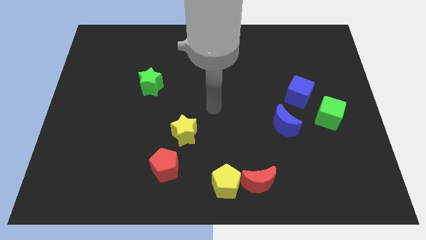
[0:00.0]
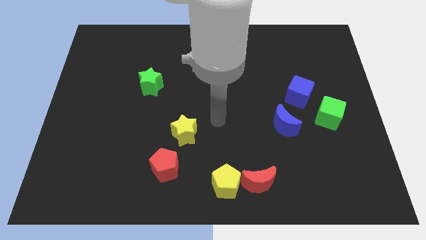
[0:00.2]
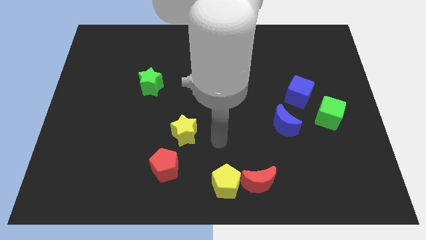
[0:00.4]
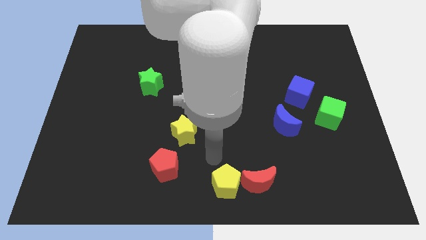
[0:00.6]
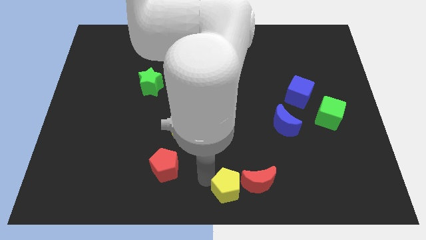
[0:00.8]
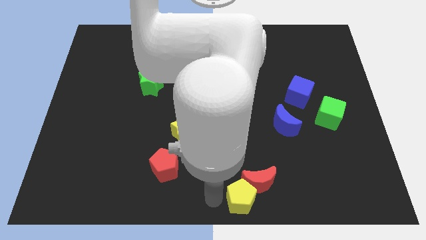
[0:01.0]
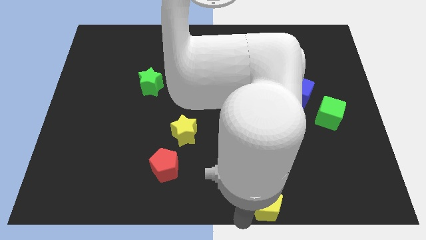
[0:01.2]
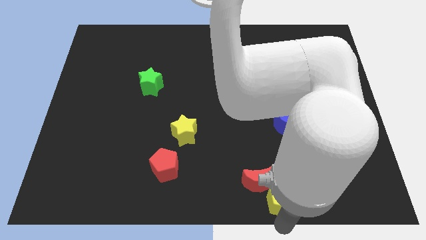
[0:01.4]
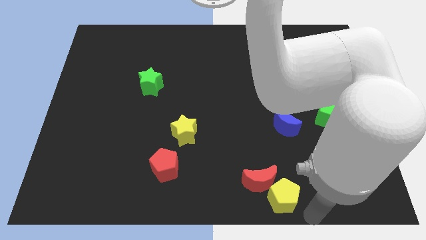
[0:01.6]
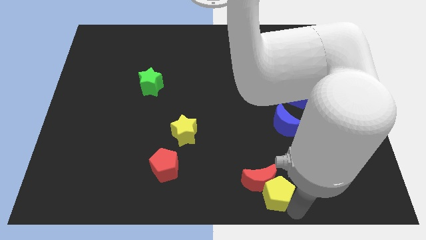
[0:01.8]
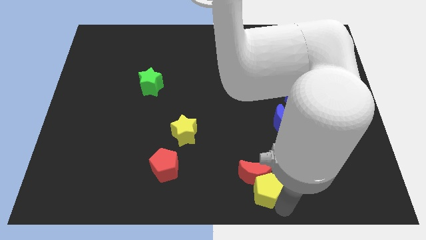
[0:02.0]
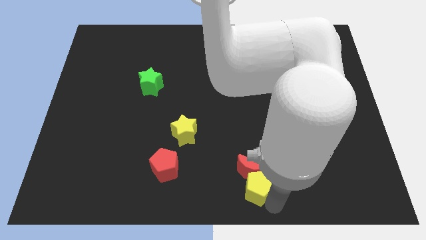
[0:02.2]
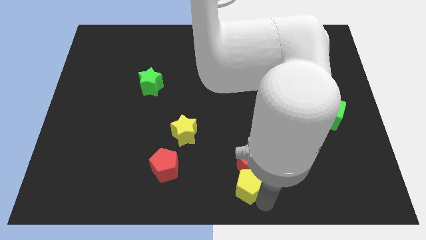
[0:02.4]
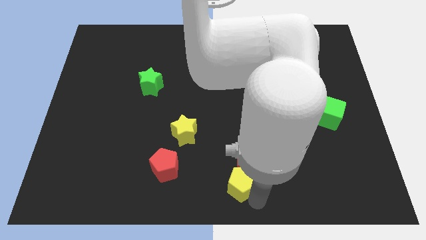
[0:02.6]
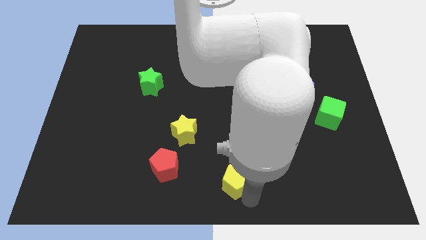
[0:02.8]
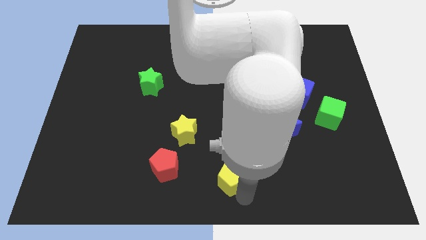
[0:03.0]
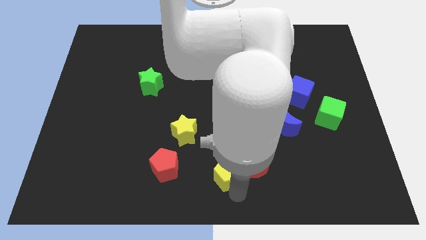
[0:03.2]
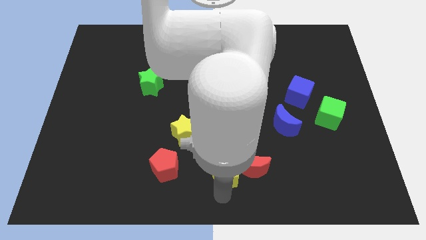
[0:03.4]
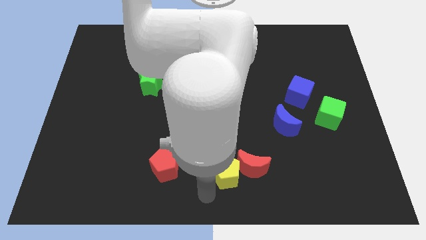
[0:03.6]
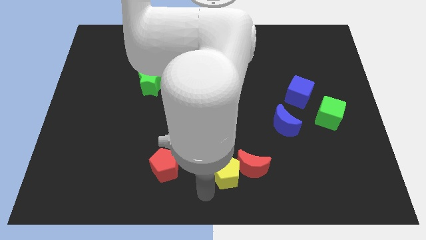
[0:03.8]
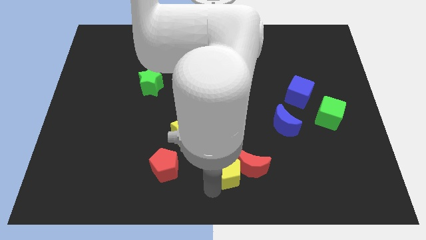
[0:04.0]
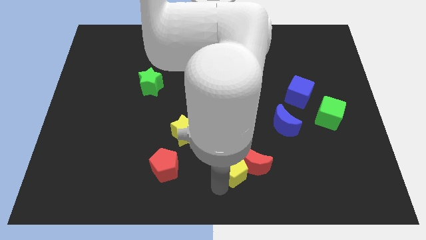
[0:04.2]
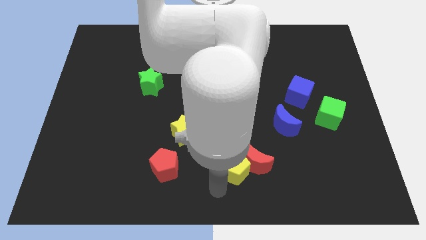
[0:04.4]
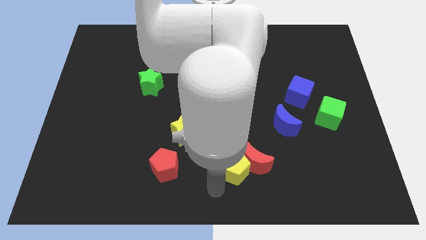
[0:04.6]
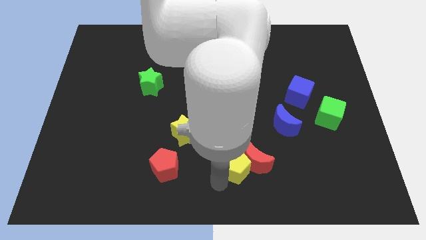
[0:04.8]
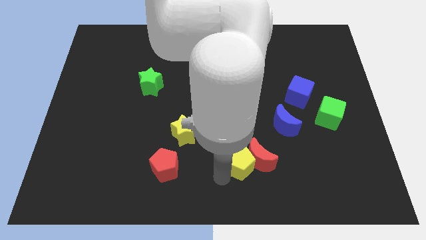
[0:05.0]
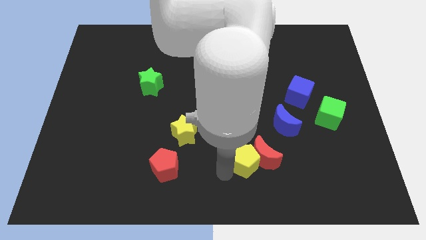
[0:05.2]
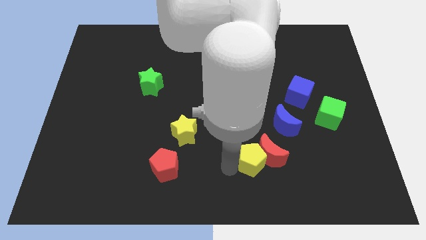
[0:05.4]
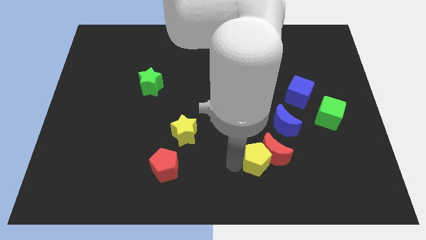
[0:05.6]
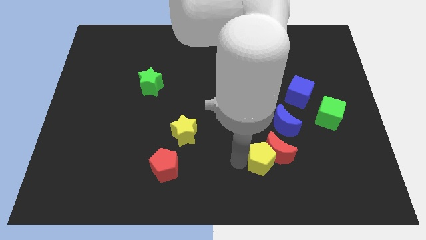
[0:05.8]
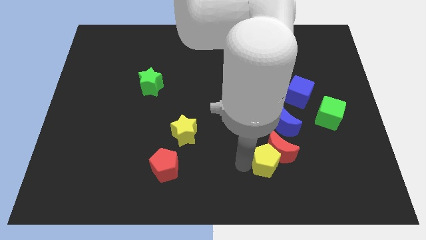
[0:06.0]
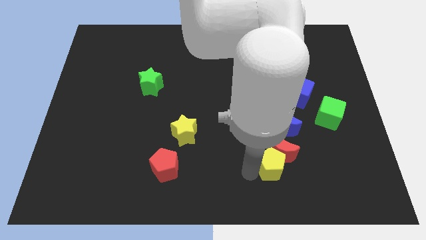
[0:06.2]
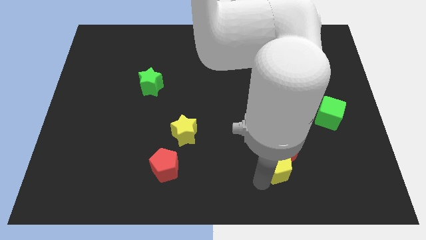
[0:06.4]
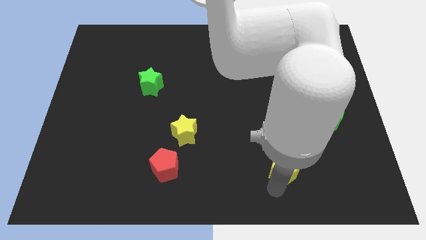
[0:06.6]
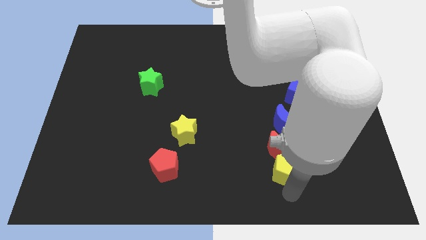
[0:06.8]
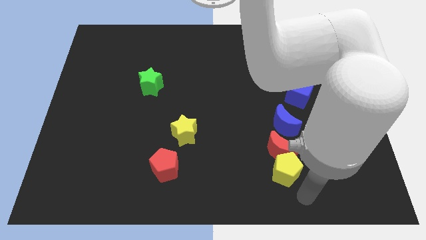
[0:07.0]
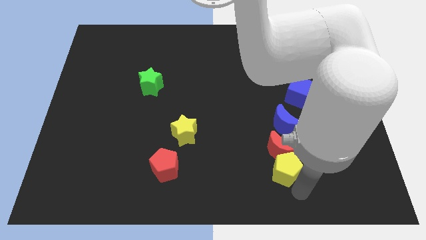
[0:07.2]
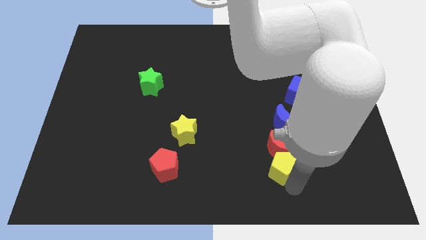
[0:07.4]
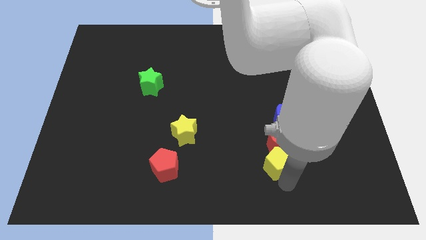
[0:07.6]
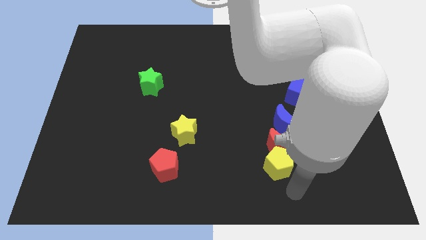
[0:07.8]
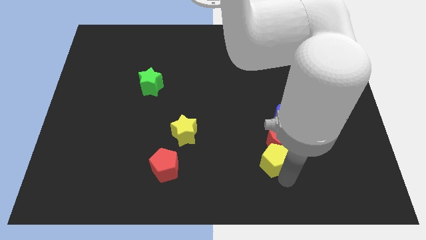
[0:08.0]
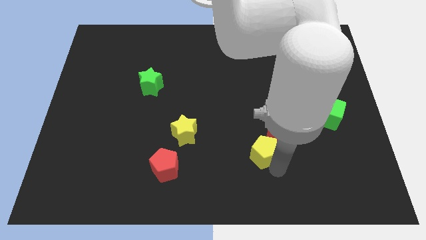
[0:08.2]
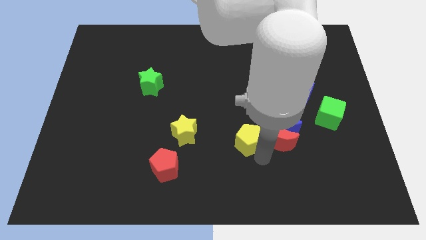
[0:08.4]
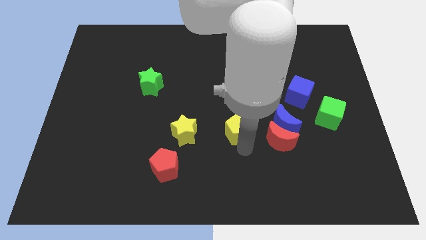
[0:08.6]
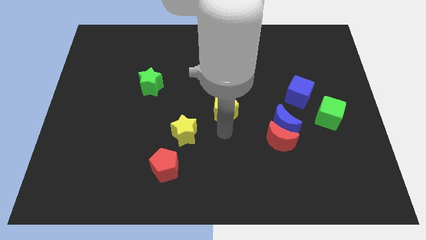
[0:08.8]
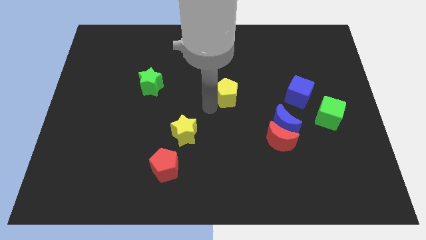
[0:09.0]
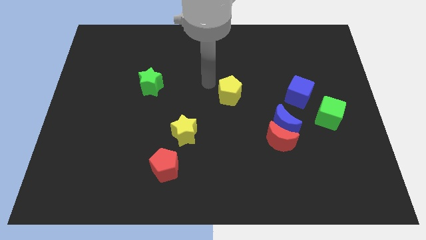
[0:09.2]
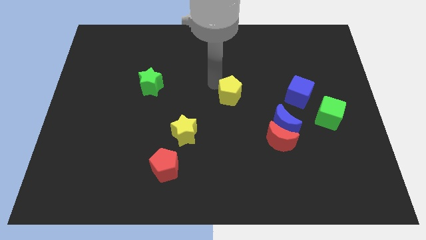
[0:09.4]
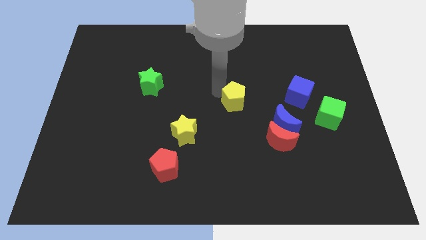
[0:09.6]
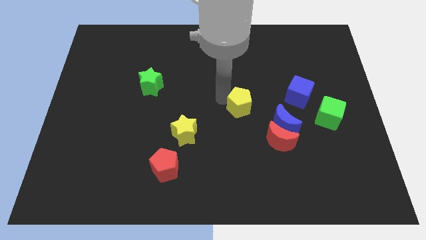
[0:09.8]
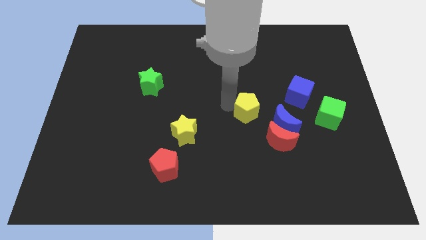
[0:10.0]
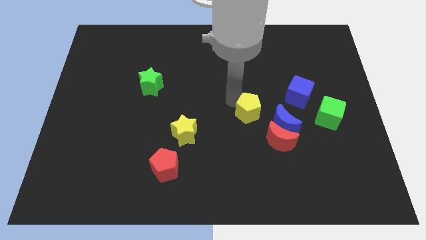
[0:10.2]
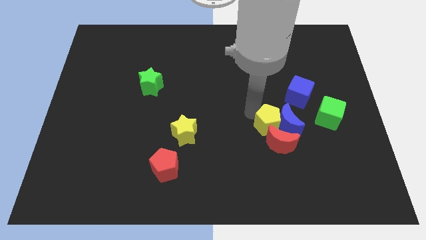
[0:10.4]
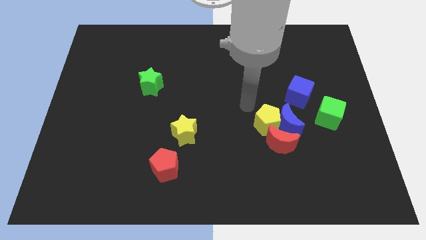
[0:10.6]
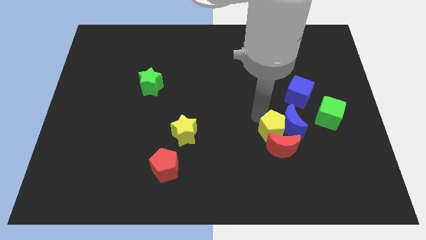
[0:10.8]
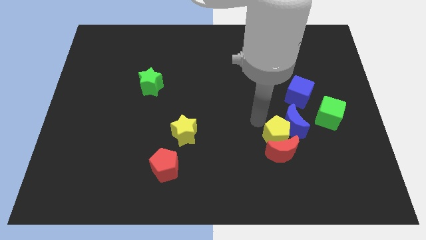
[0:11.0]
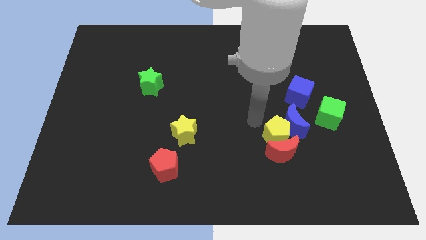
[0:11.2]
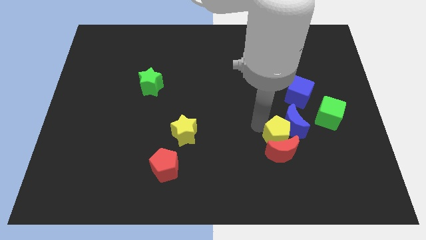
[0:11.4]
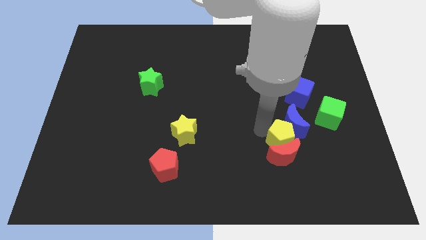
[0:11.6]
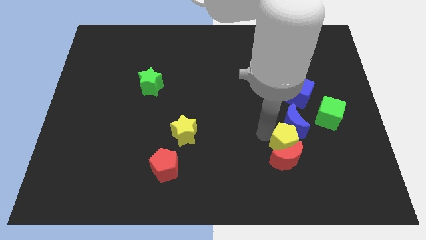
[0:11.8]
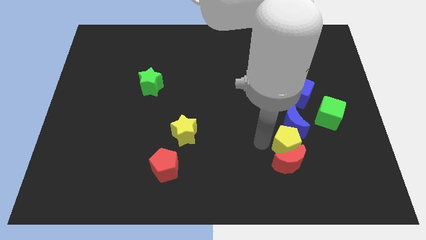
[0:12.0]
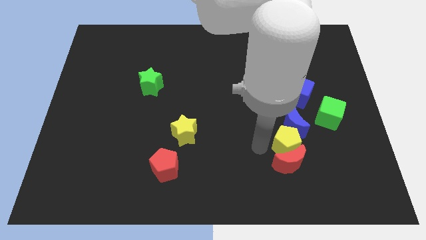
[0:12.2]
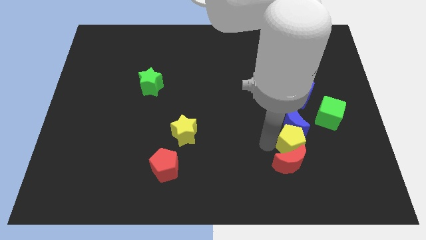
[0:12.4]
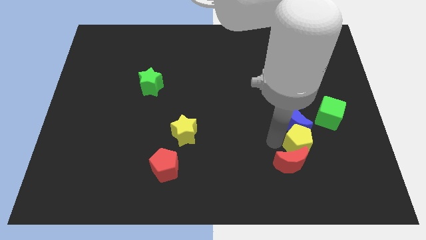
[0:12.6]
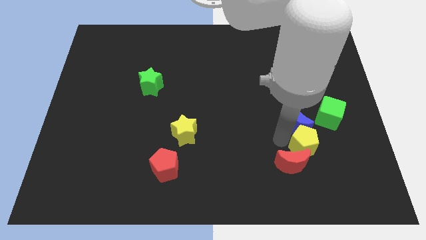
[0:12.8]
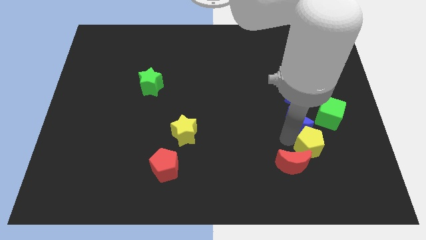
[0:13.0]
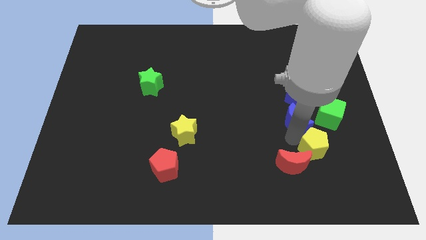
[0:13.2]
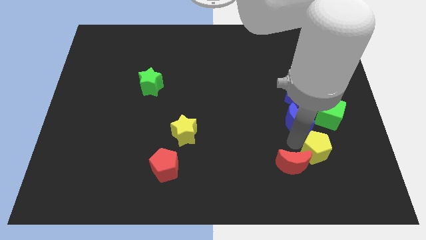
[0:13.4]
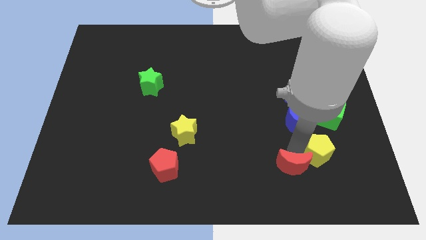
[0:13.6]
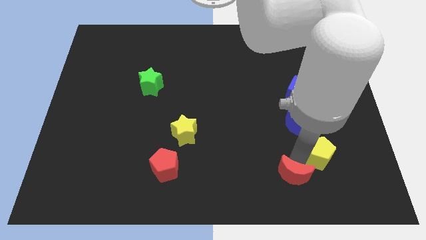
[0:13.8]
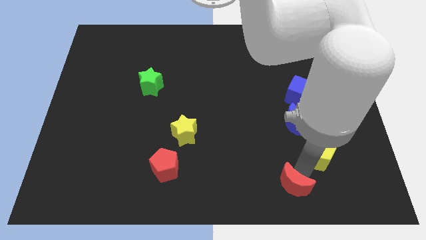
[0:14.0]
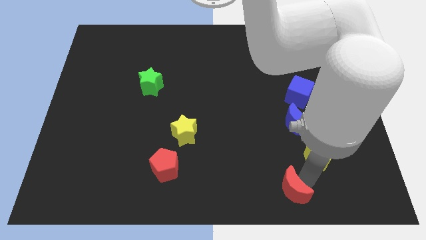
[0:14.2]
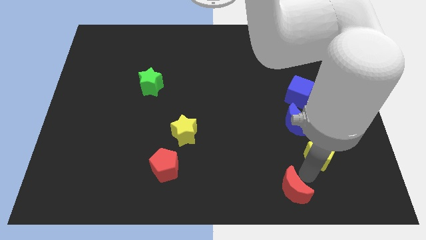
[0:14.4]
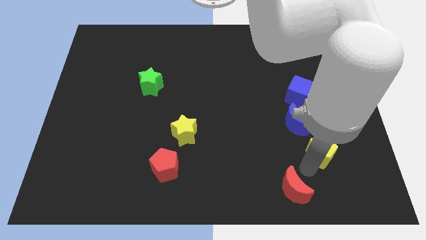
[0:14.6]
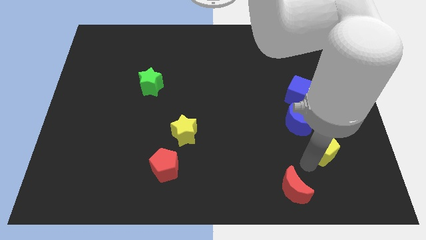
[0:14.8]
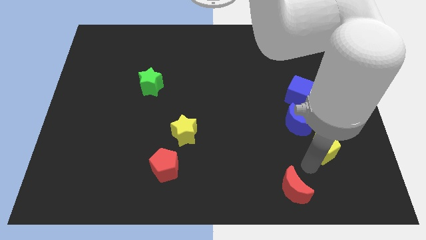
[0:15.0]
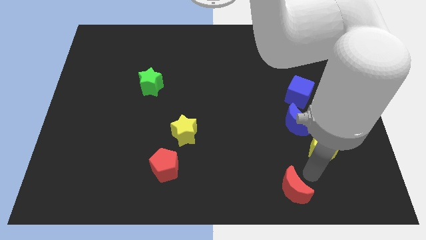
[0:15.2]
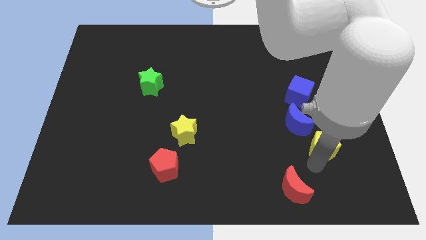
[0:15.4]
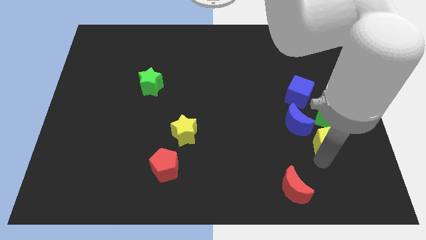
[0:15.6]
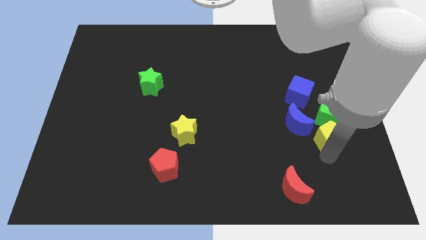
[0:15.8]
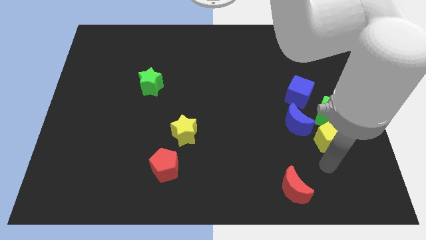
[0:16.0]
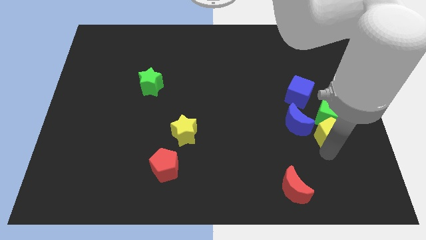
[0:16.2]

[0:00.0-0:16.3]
slide the yellow pentagon close to the green cube
